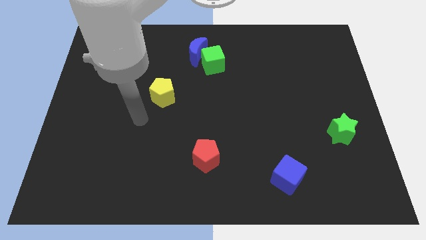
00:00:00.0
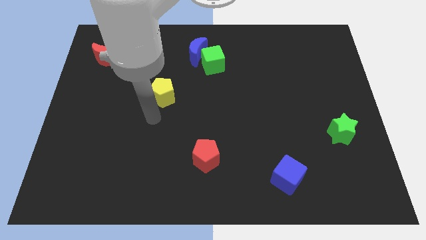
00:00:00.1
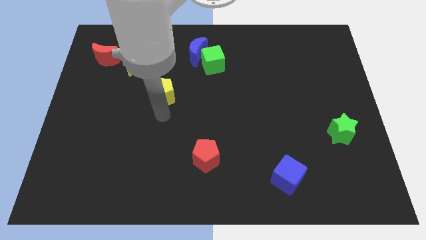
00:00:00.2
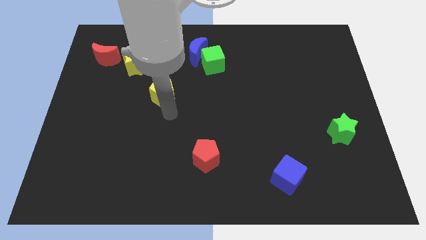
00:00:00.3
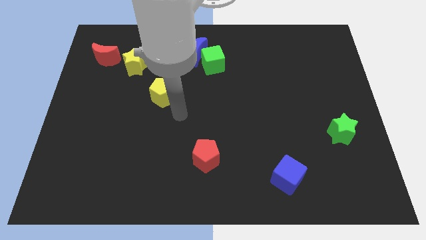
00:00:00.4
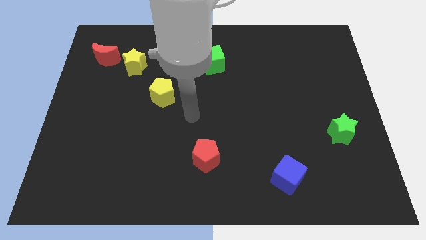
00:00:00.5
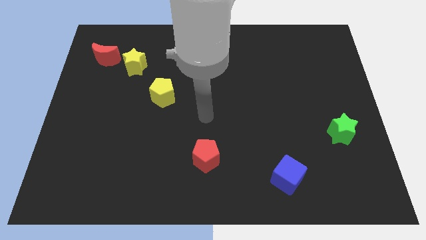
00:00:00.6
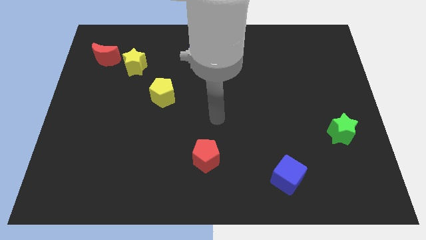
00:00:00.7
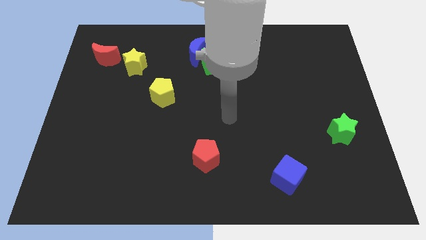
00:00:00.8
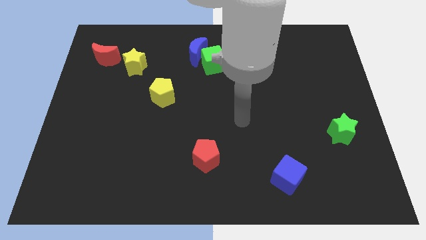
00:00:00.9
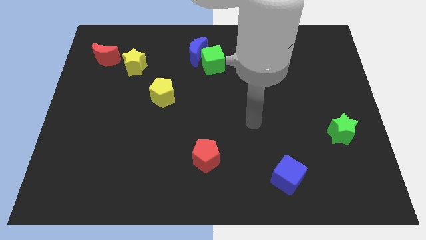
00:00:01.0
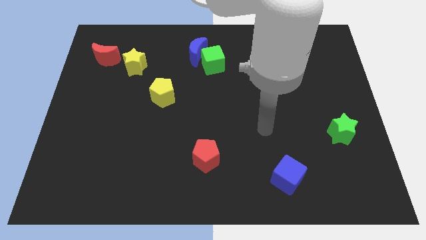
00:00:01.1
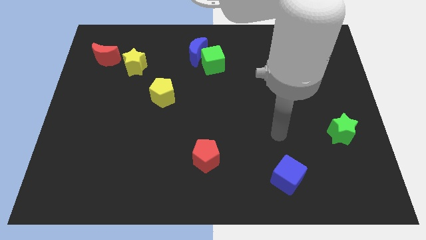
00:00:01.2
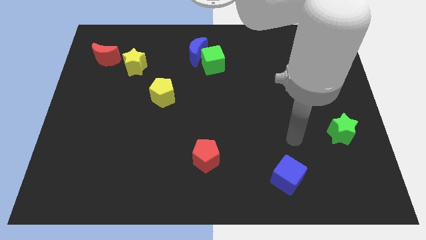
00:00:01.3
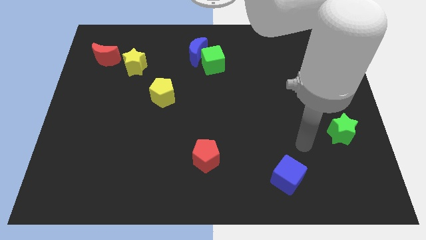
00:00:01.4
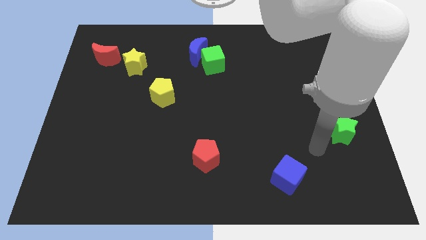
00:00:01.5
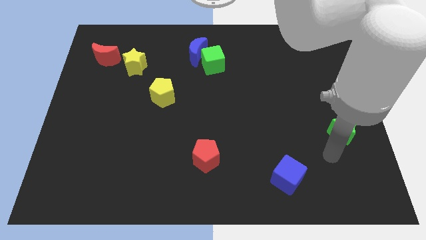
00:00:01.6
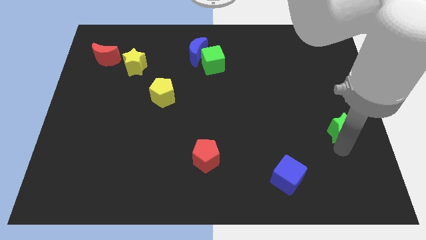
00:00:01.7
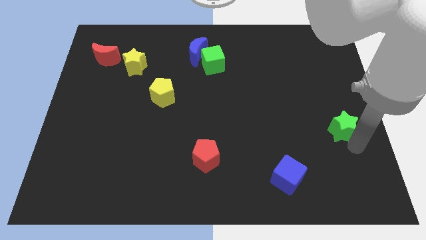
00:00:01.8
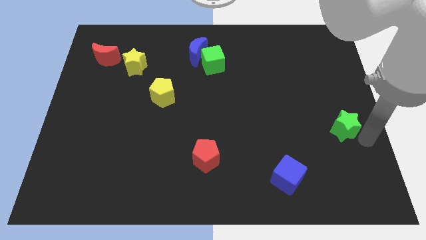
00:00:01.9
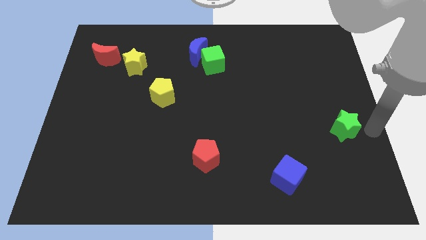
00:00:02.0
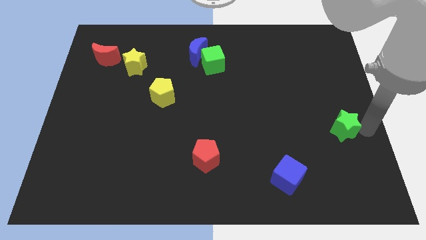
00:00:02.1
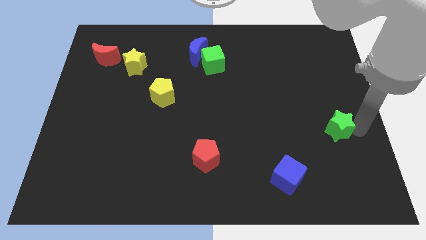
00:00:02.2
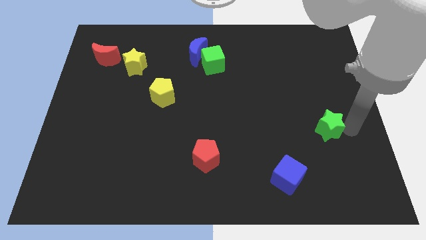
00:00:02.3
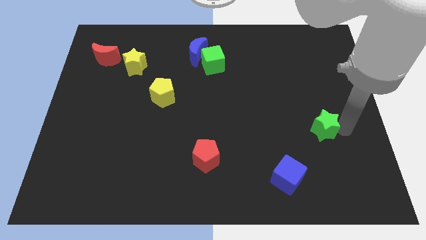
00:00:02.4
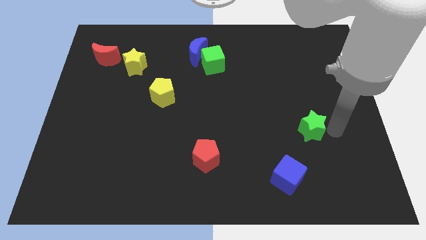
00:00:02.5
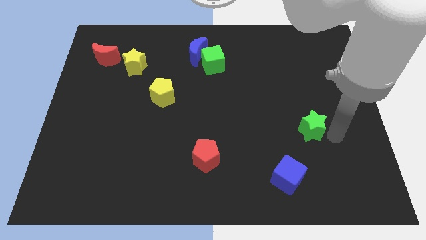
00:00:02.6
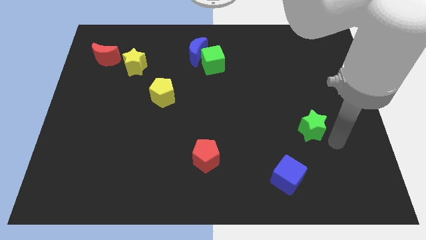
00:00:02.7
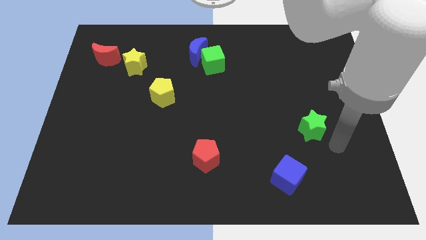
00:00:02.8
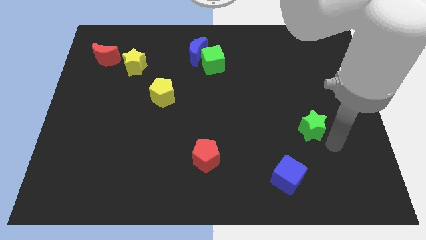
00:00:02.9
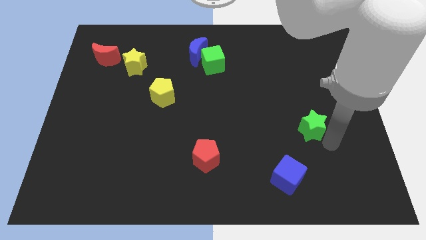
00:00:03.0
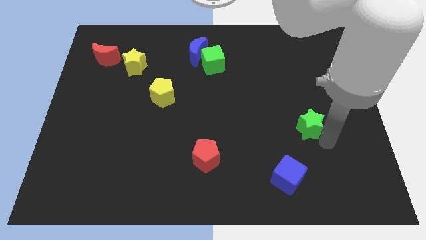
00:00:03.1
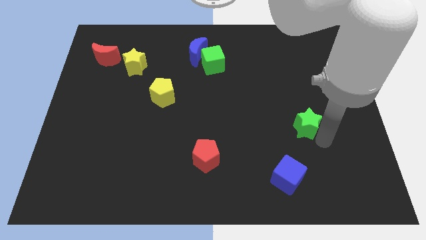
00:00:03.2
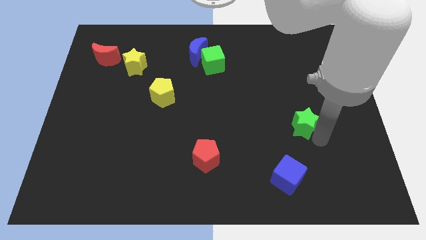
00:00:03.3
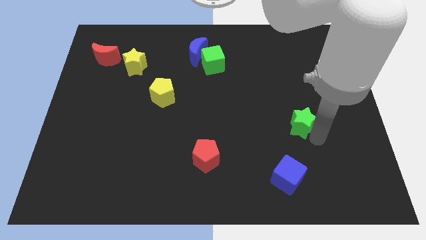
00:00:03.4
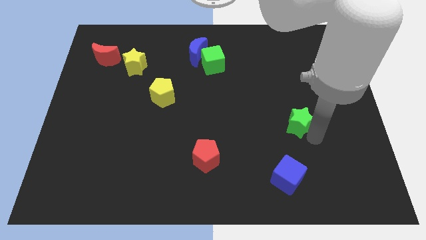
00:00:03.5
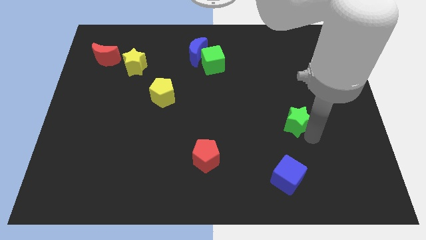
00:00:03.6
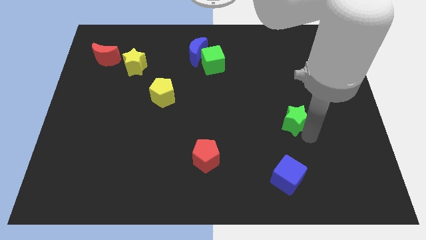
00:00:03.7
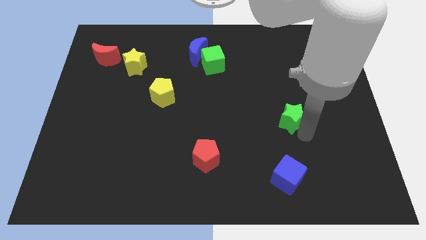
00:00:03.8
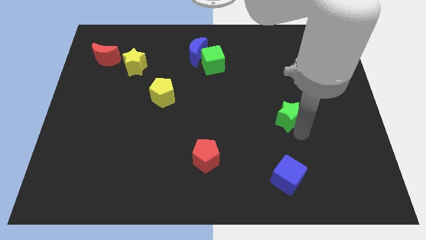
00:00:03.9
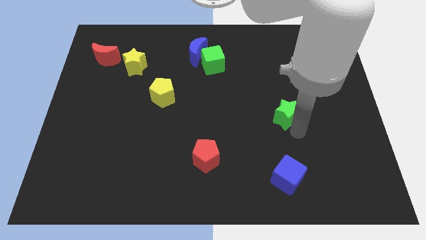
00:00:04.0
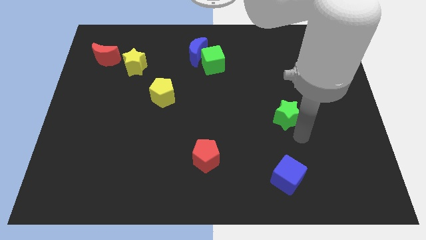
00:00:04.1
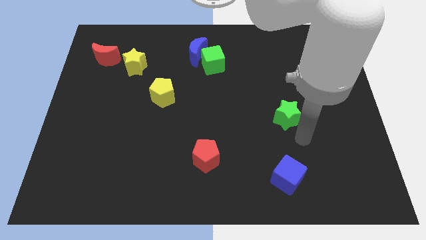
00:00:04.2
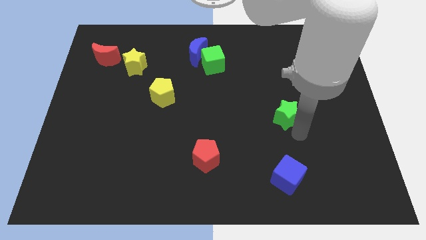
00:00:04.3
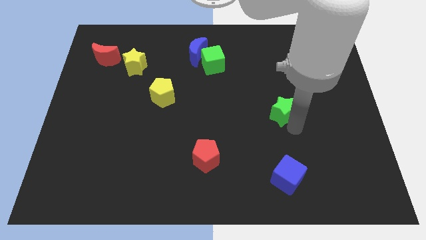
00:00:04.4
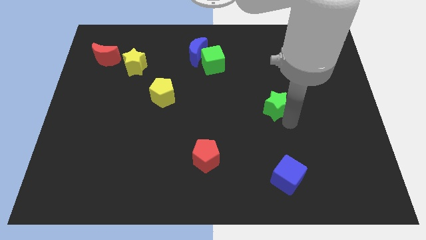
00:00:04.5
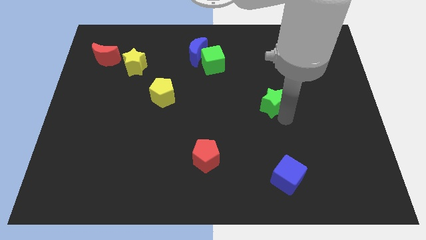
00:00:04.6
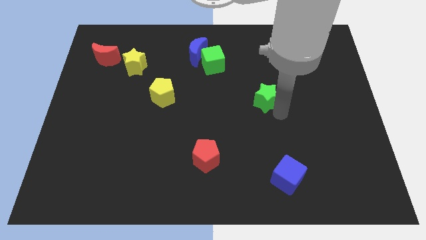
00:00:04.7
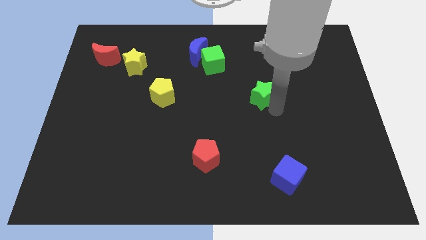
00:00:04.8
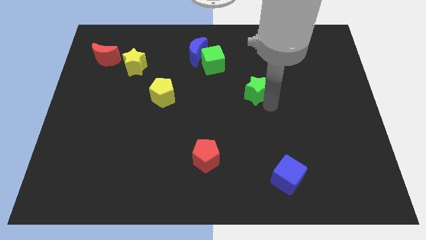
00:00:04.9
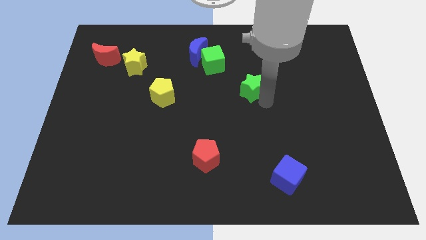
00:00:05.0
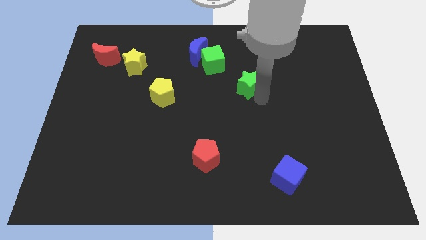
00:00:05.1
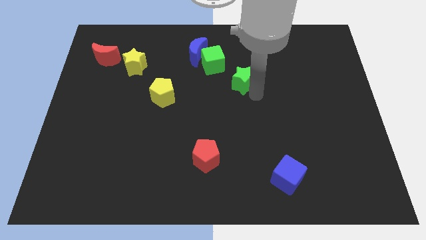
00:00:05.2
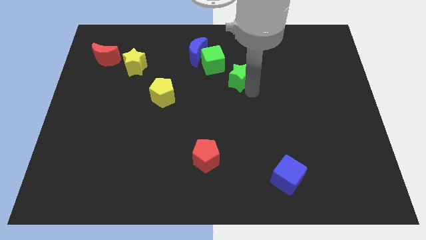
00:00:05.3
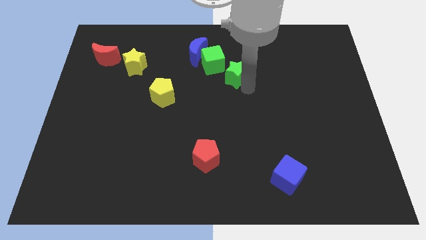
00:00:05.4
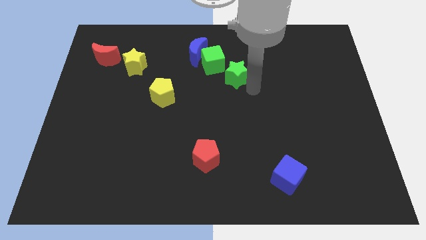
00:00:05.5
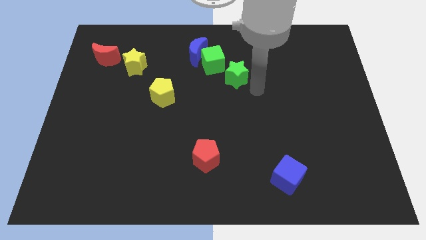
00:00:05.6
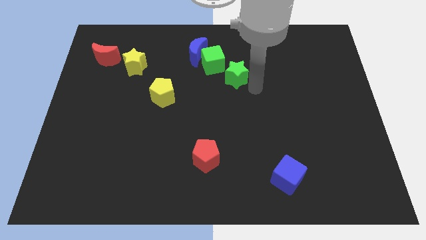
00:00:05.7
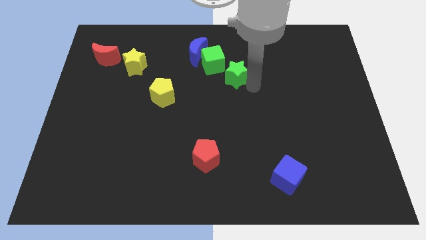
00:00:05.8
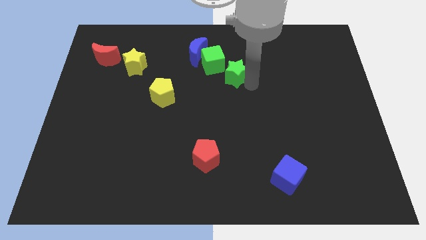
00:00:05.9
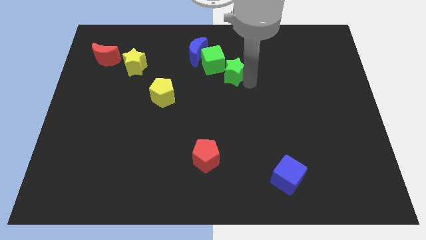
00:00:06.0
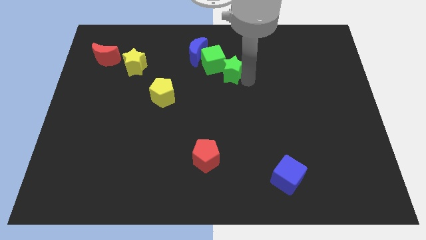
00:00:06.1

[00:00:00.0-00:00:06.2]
put the green star to the green cube

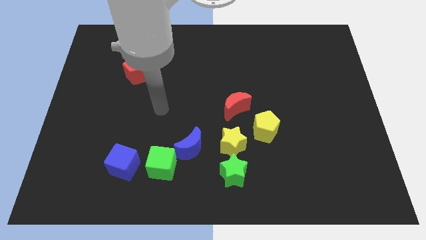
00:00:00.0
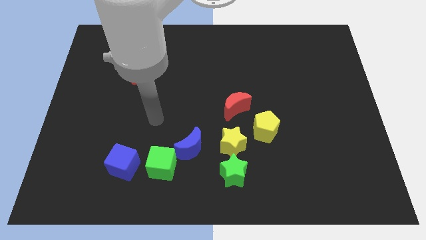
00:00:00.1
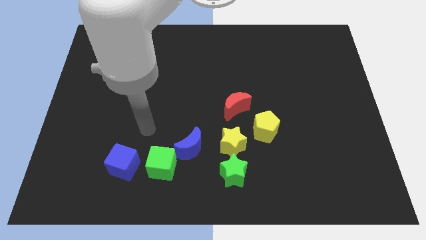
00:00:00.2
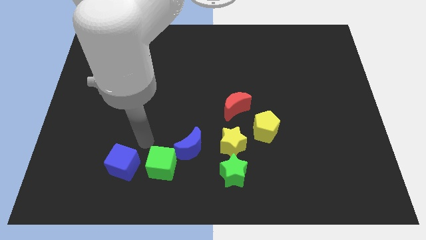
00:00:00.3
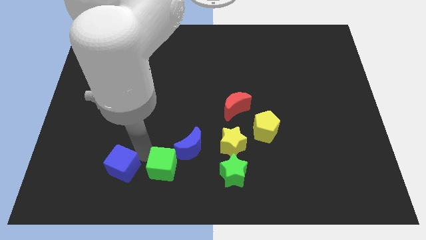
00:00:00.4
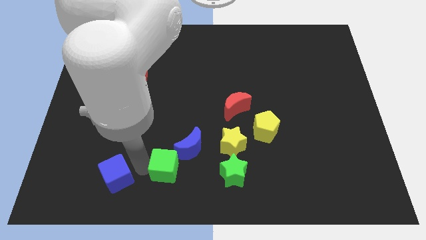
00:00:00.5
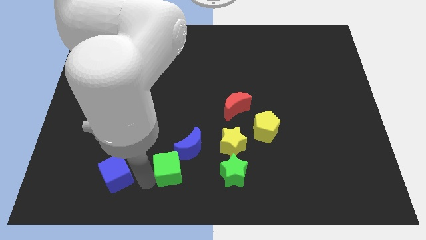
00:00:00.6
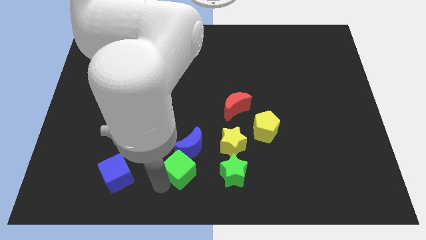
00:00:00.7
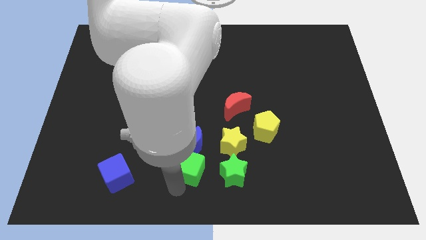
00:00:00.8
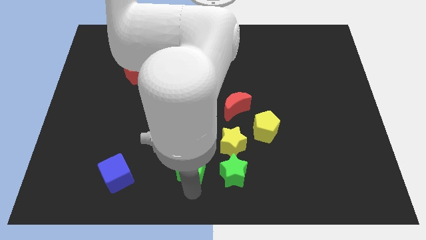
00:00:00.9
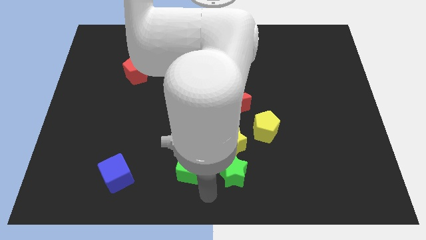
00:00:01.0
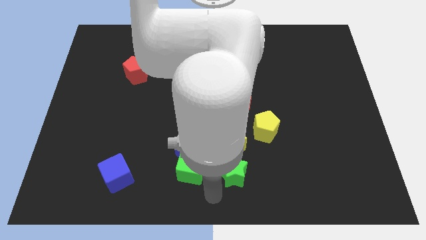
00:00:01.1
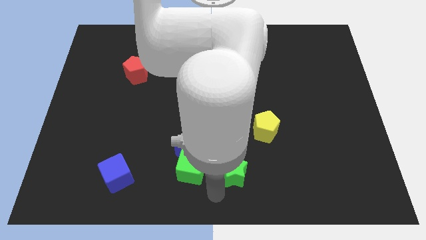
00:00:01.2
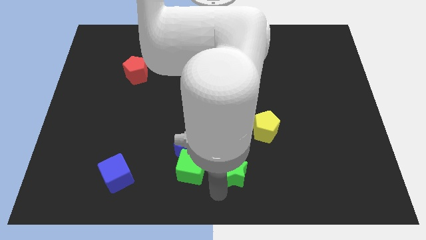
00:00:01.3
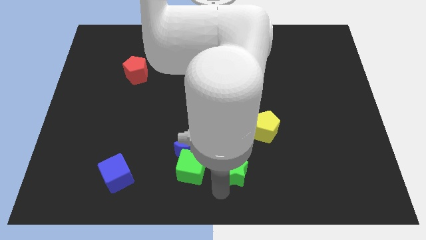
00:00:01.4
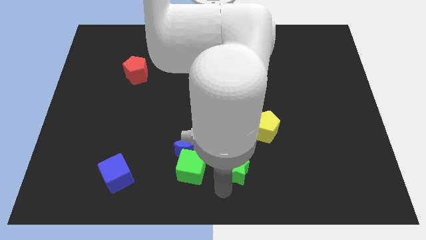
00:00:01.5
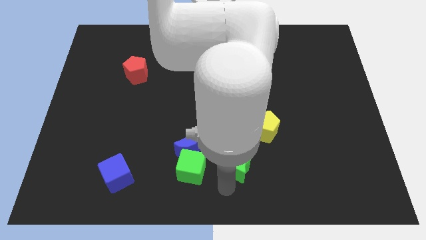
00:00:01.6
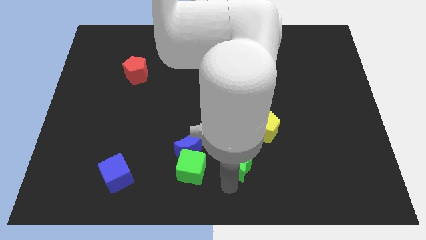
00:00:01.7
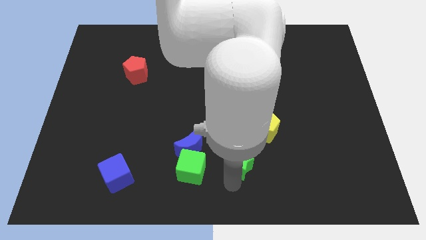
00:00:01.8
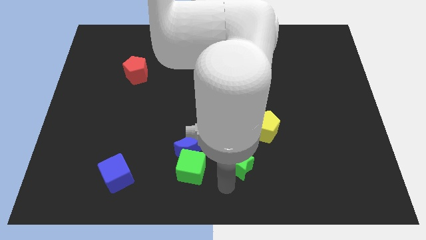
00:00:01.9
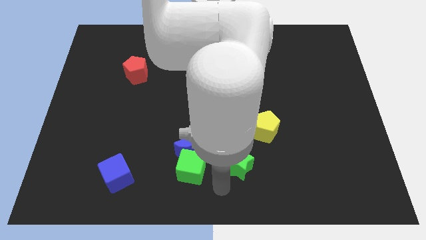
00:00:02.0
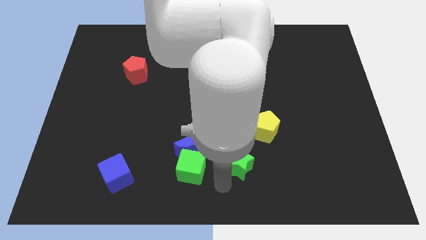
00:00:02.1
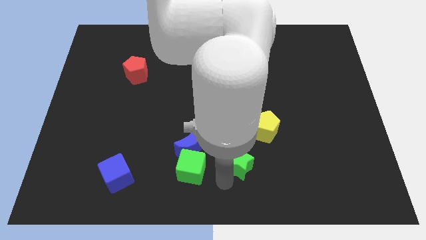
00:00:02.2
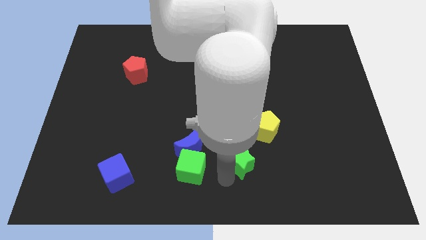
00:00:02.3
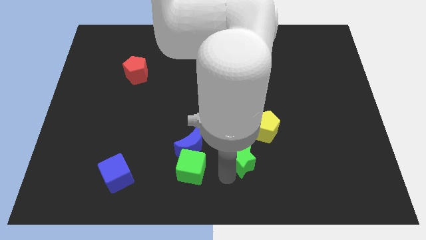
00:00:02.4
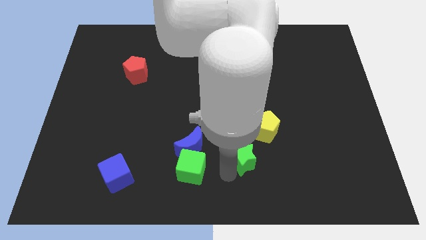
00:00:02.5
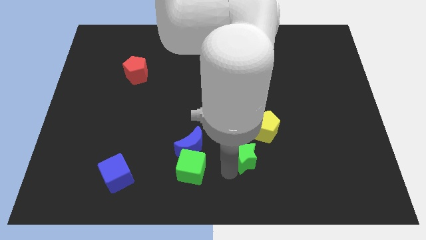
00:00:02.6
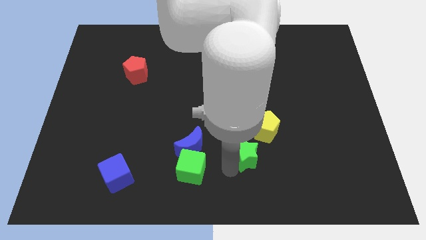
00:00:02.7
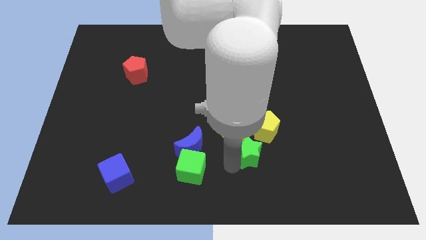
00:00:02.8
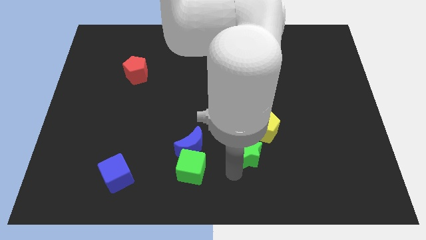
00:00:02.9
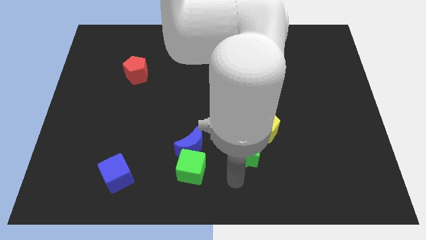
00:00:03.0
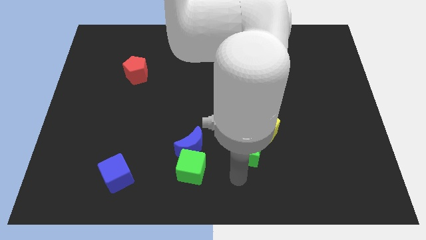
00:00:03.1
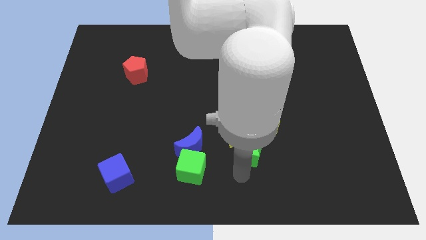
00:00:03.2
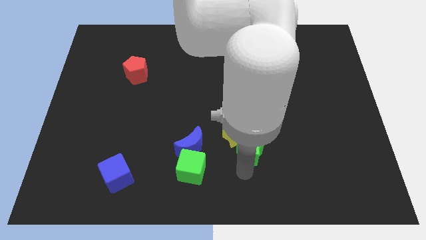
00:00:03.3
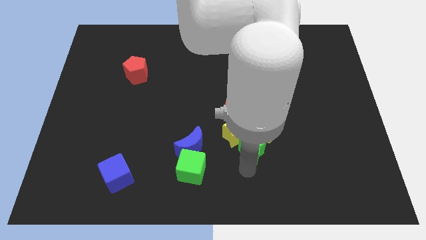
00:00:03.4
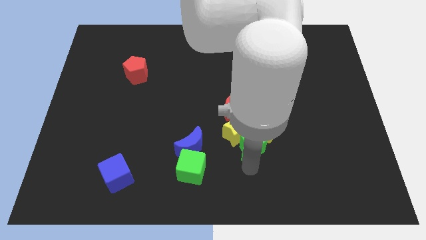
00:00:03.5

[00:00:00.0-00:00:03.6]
move the green star next to the yellow pentagon
